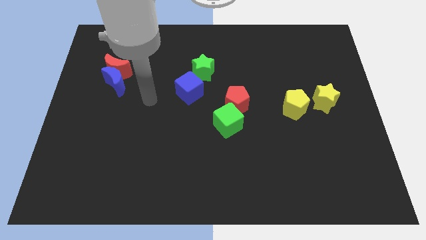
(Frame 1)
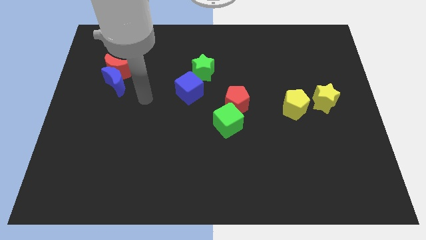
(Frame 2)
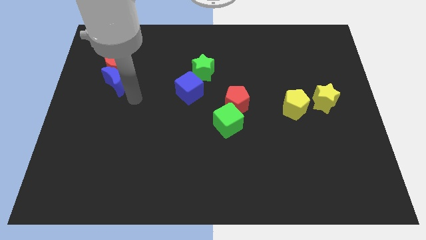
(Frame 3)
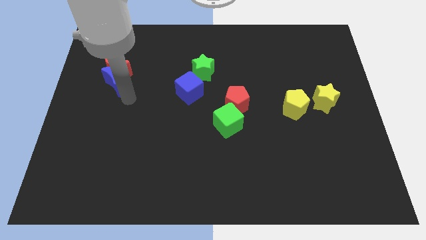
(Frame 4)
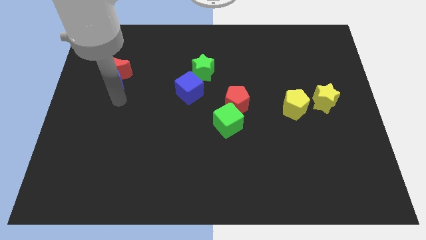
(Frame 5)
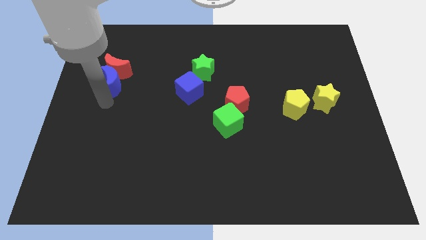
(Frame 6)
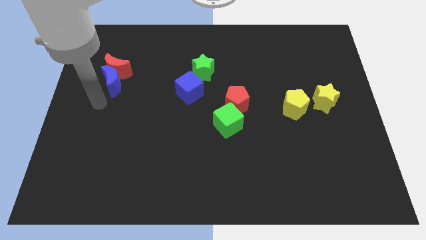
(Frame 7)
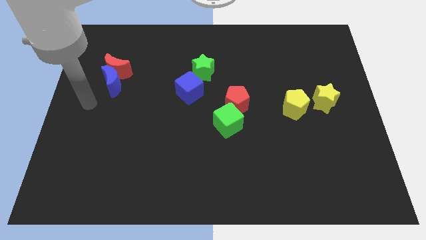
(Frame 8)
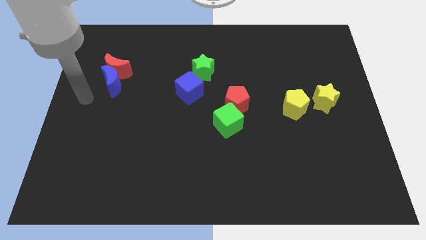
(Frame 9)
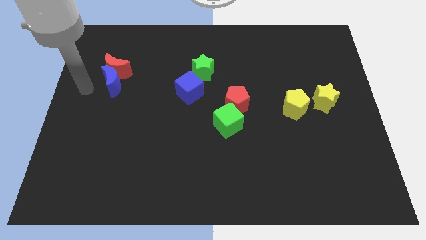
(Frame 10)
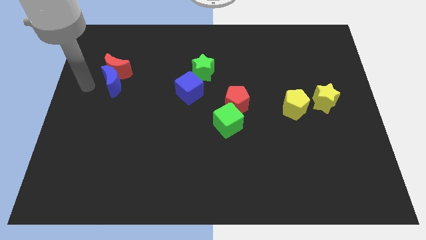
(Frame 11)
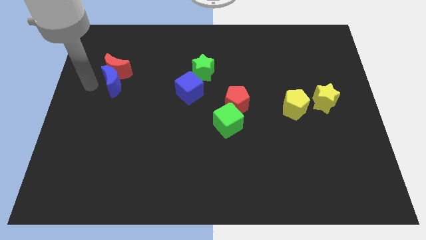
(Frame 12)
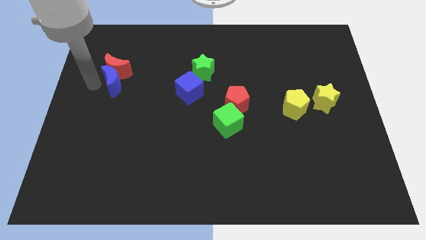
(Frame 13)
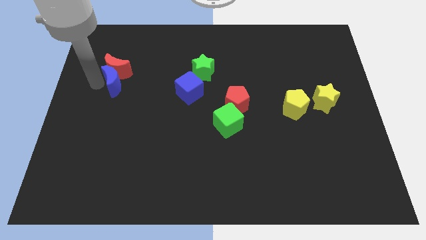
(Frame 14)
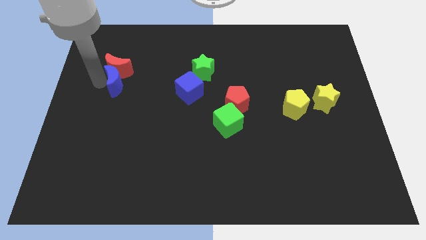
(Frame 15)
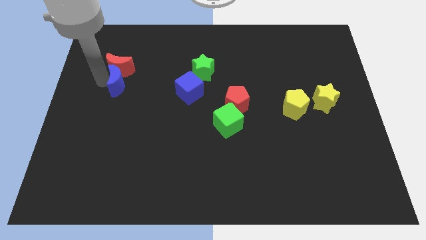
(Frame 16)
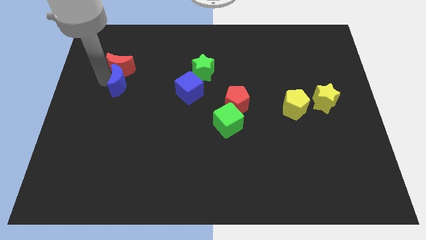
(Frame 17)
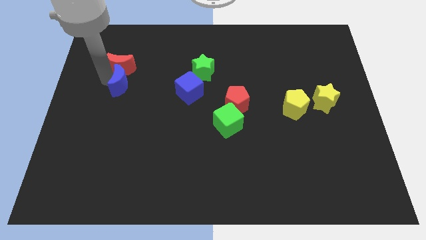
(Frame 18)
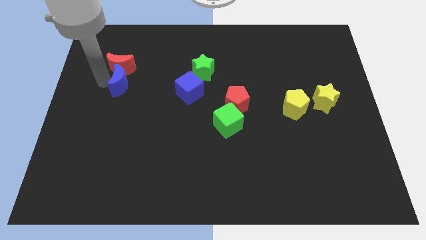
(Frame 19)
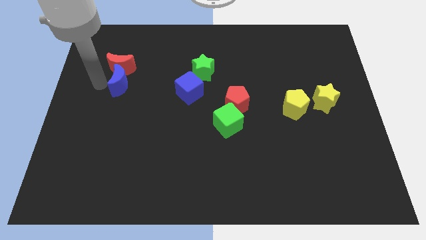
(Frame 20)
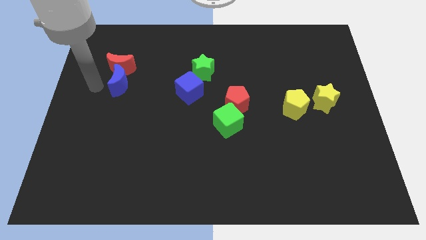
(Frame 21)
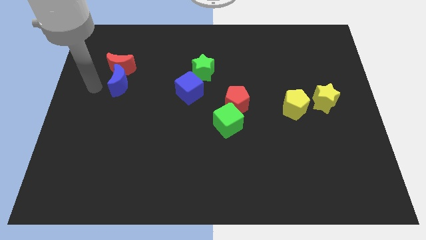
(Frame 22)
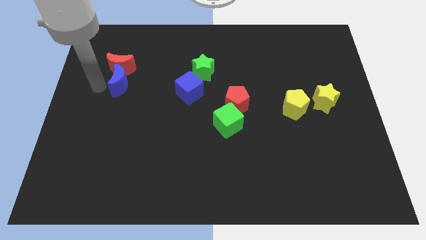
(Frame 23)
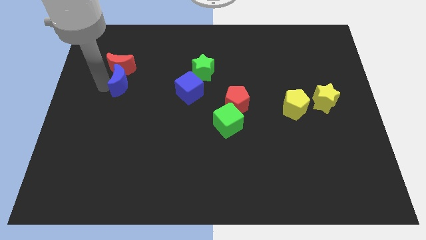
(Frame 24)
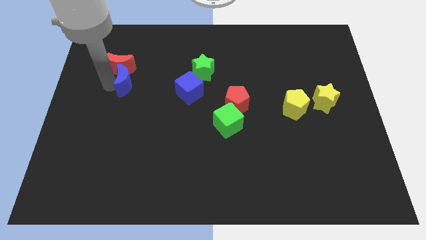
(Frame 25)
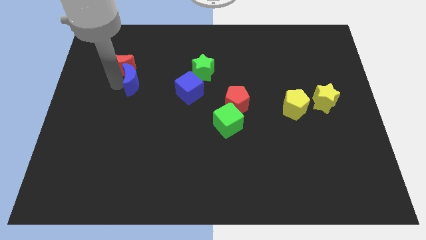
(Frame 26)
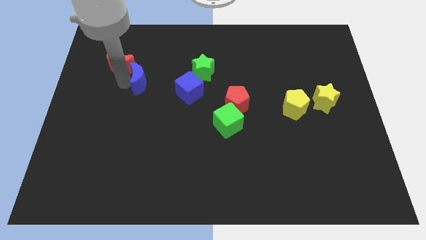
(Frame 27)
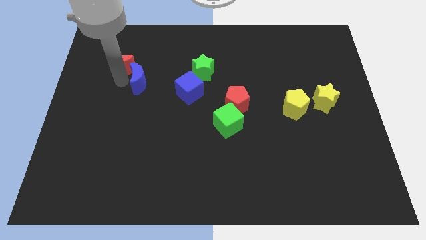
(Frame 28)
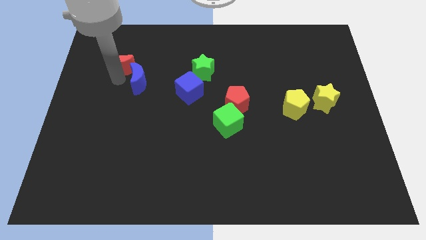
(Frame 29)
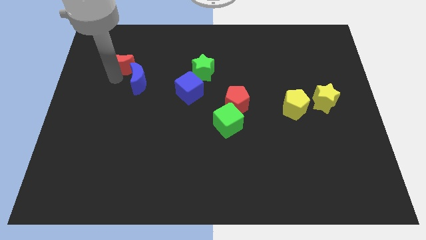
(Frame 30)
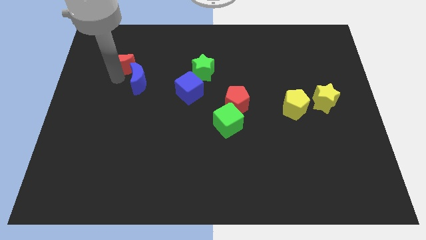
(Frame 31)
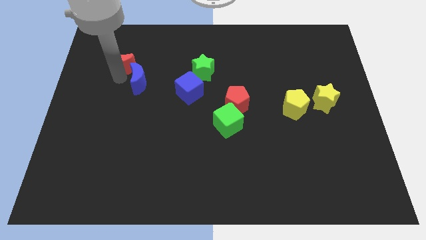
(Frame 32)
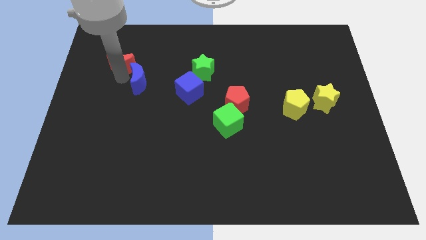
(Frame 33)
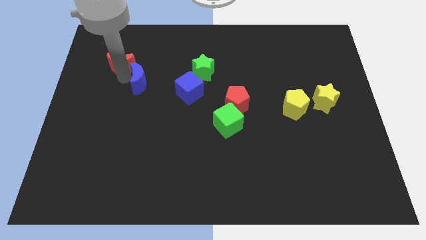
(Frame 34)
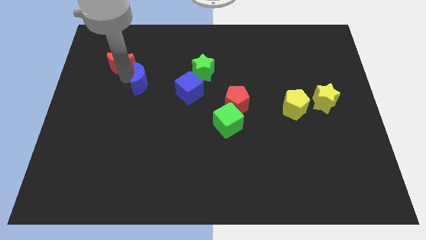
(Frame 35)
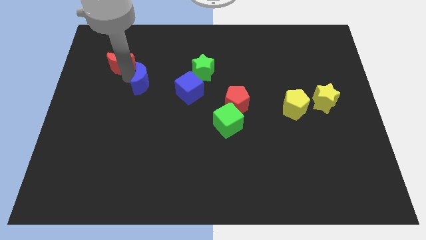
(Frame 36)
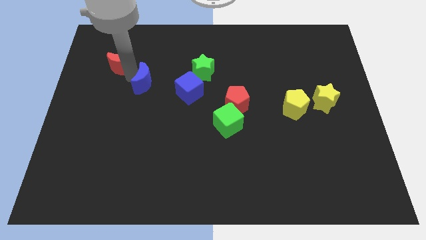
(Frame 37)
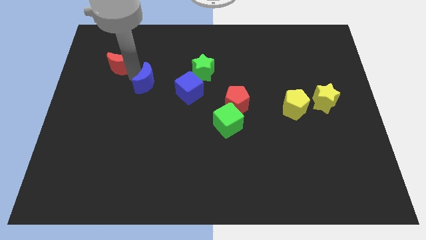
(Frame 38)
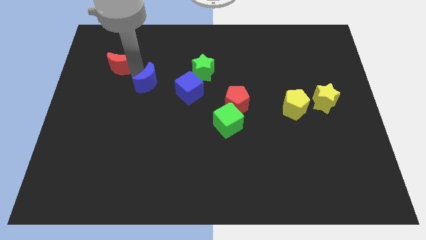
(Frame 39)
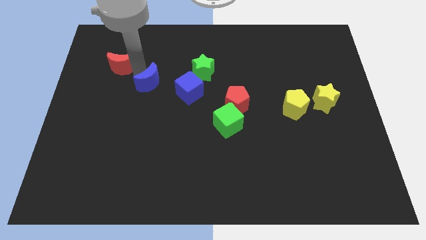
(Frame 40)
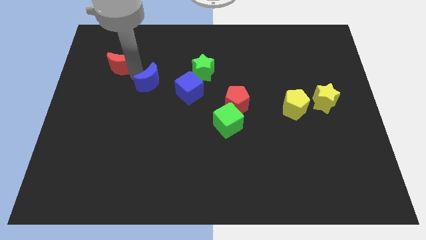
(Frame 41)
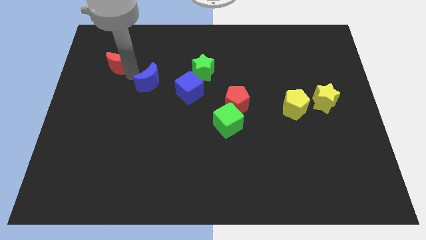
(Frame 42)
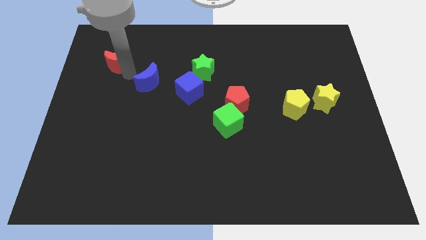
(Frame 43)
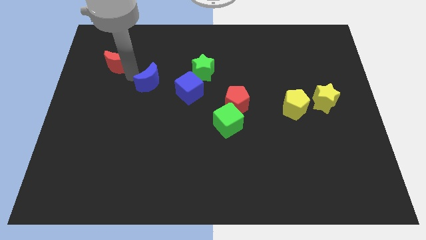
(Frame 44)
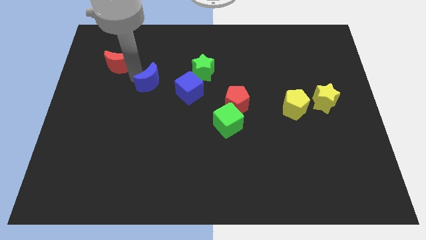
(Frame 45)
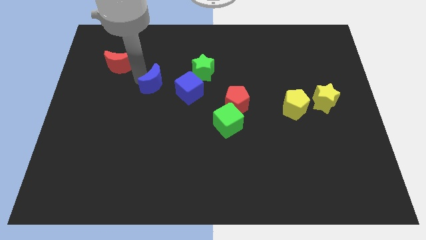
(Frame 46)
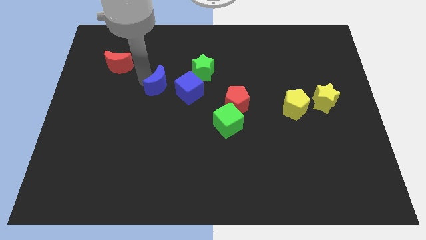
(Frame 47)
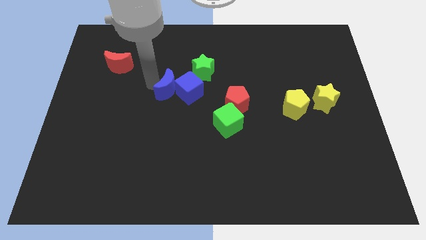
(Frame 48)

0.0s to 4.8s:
move the blue moon to the blue cube

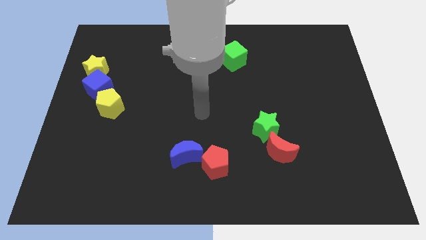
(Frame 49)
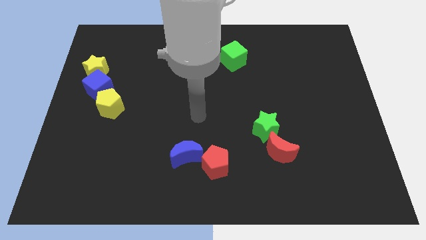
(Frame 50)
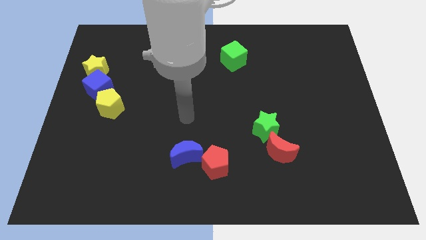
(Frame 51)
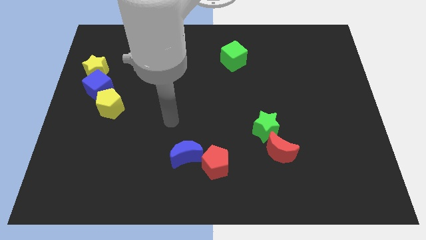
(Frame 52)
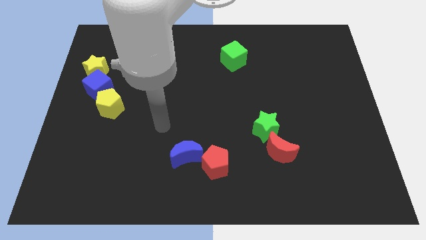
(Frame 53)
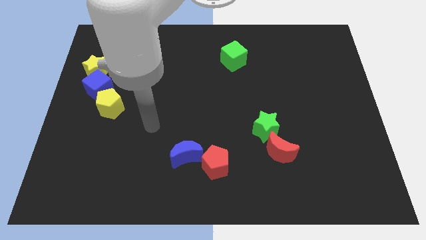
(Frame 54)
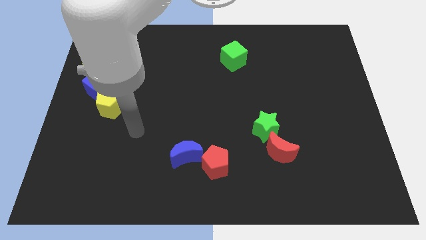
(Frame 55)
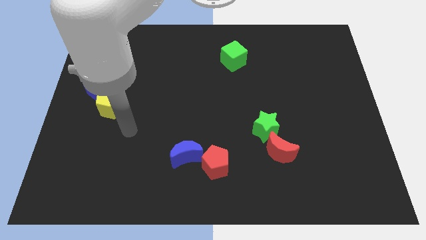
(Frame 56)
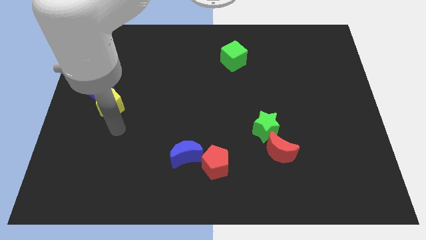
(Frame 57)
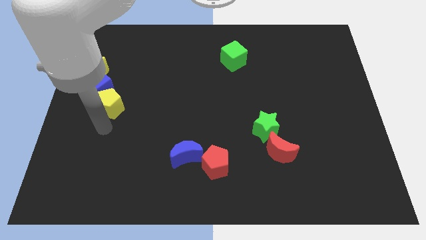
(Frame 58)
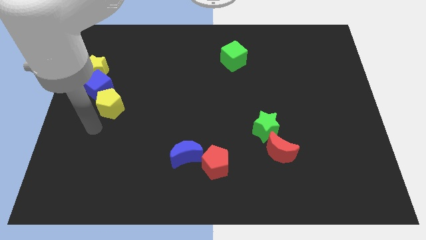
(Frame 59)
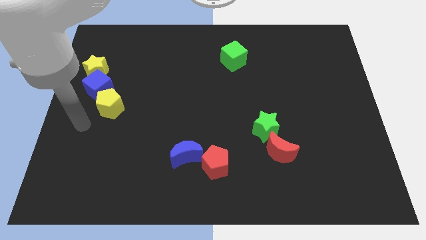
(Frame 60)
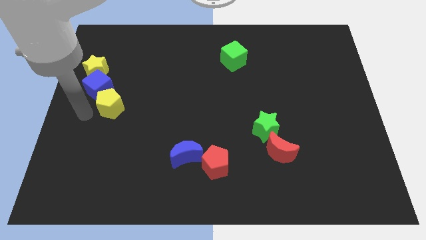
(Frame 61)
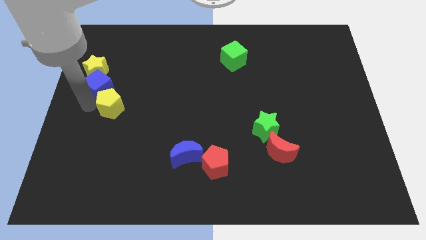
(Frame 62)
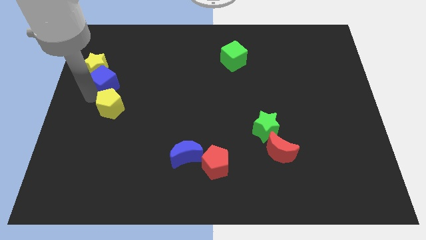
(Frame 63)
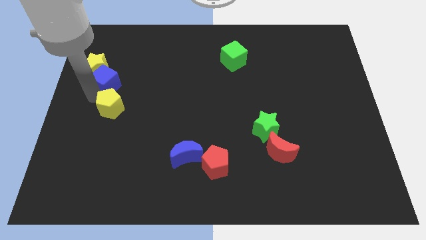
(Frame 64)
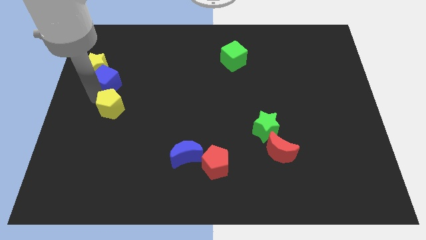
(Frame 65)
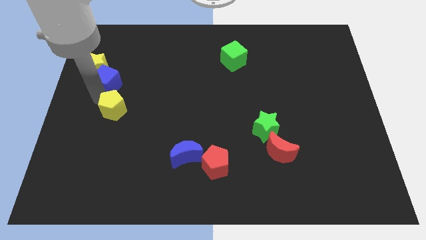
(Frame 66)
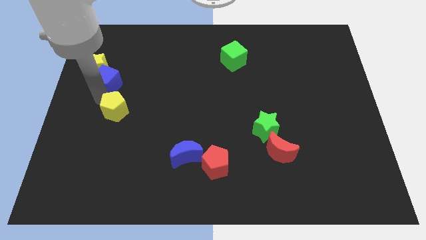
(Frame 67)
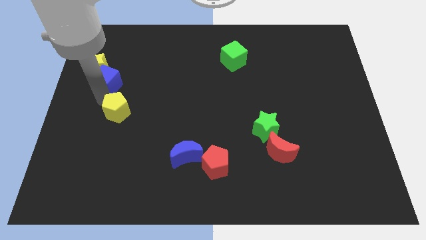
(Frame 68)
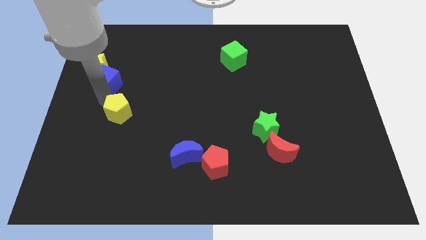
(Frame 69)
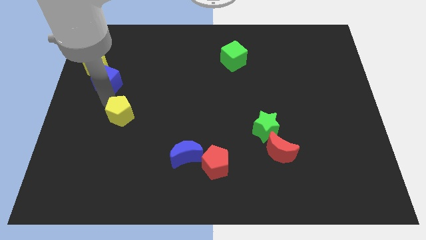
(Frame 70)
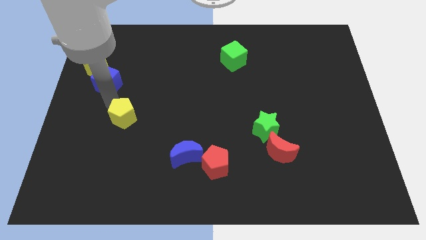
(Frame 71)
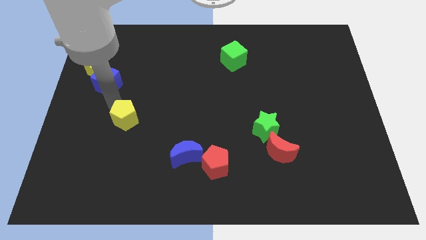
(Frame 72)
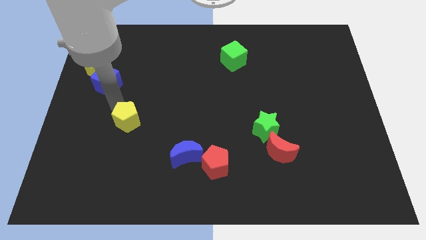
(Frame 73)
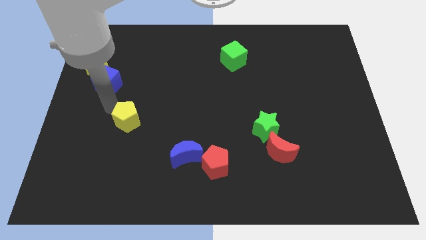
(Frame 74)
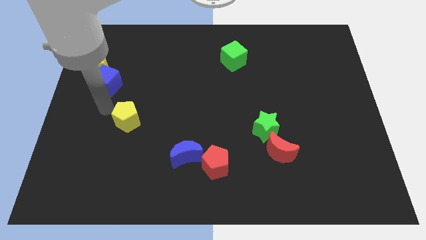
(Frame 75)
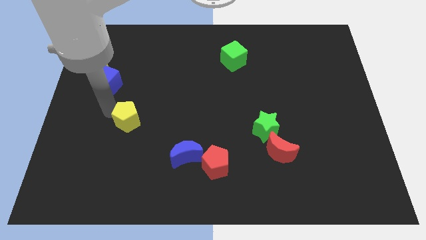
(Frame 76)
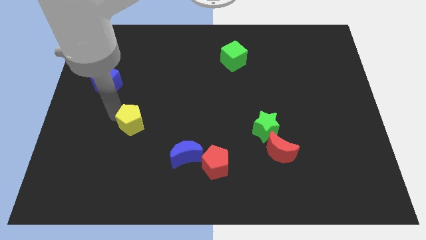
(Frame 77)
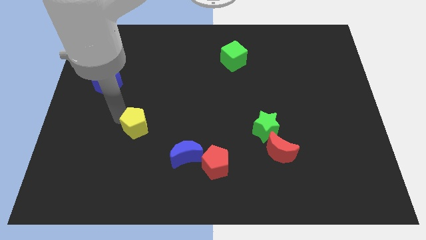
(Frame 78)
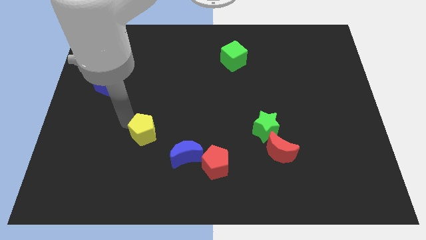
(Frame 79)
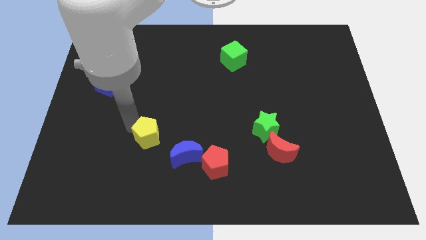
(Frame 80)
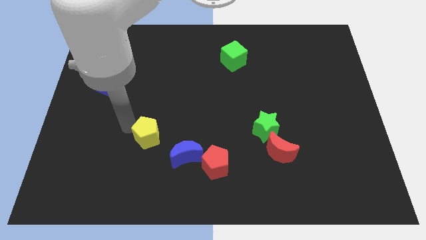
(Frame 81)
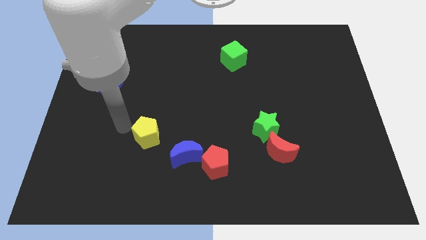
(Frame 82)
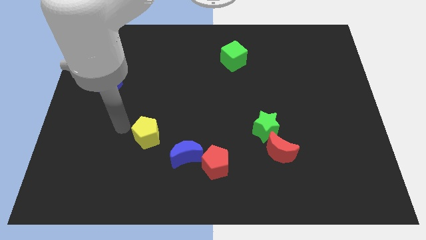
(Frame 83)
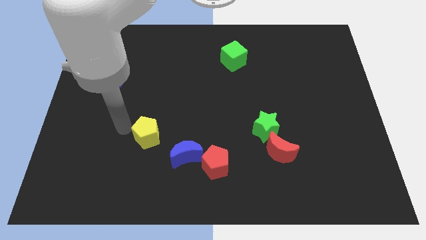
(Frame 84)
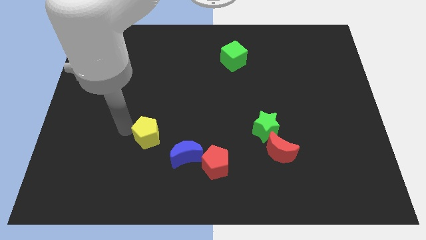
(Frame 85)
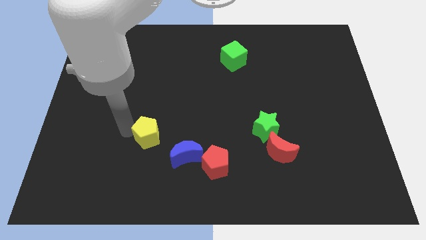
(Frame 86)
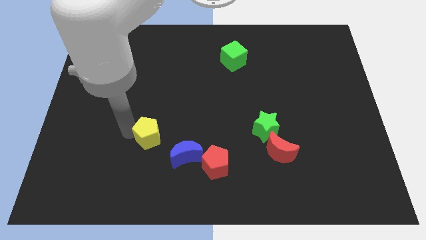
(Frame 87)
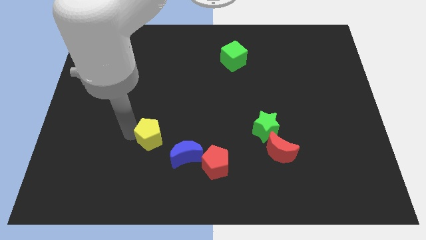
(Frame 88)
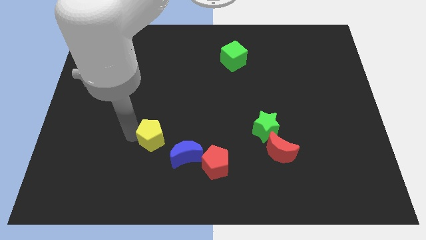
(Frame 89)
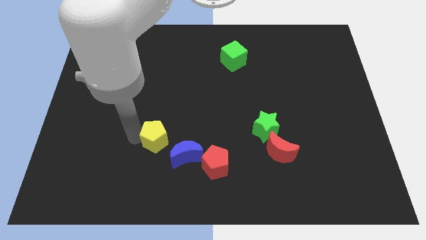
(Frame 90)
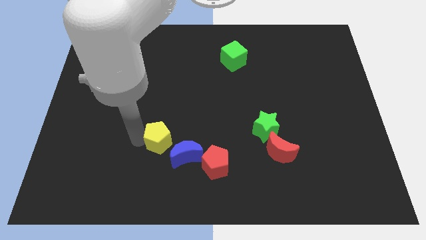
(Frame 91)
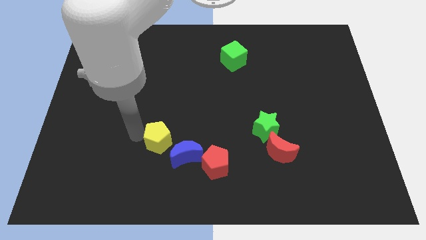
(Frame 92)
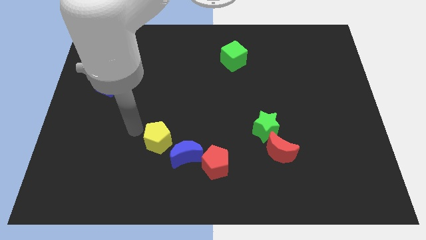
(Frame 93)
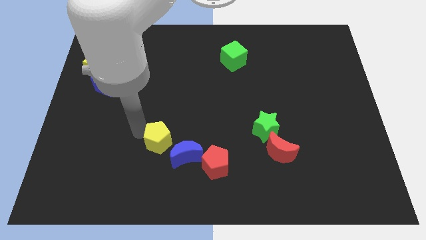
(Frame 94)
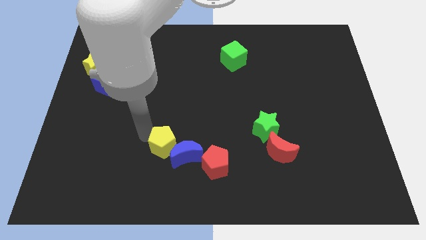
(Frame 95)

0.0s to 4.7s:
push the yellow pentagon towards the blue moon
